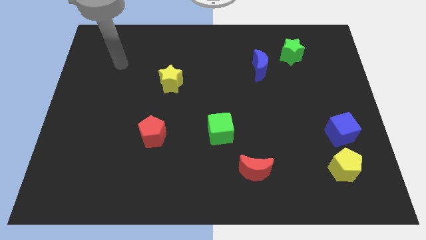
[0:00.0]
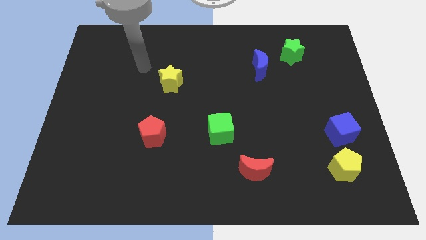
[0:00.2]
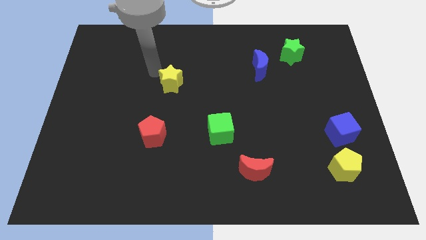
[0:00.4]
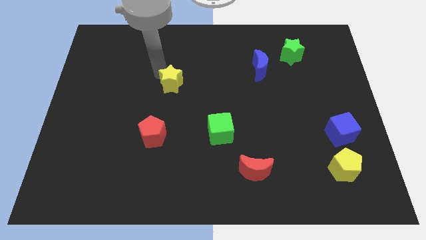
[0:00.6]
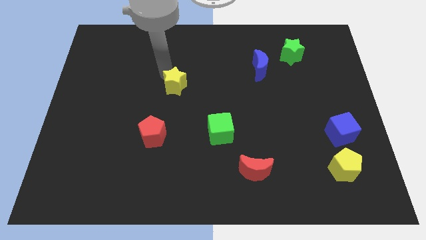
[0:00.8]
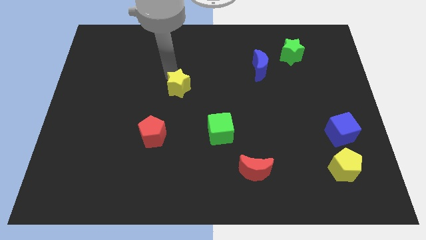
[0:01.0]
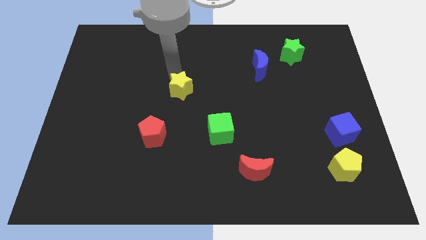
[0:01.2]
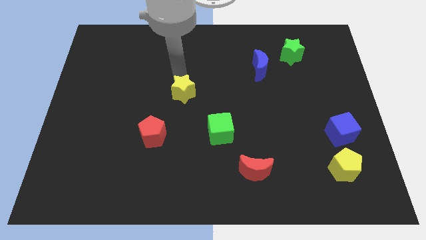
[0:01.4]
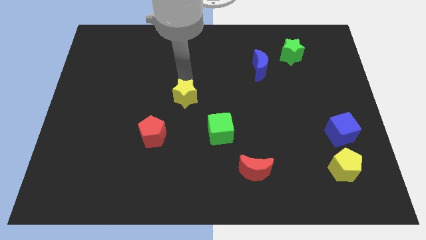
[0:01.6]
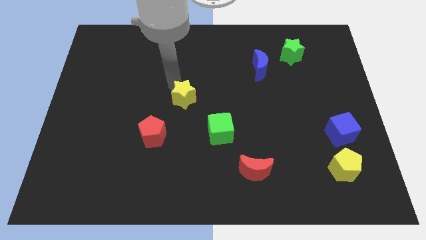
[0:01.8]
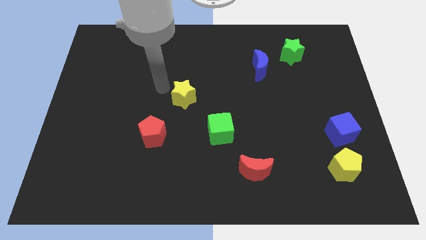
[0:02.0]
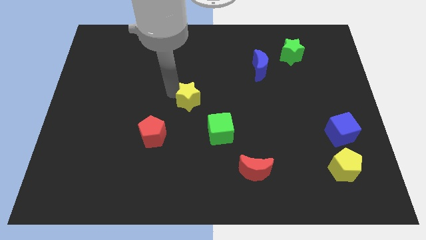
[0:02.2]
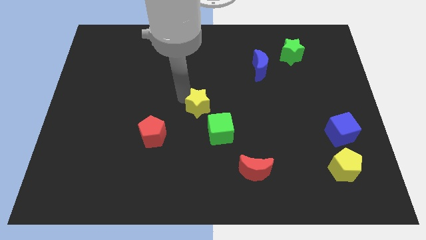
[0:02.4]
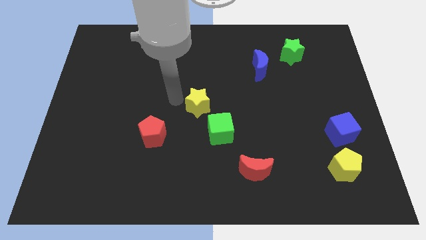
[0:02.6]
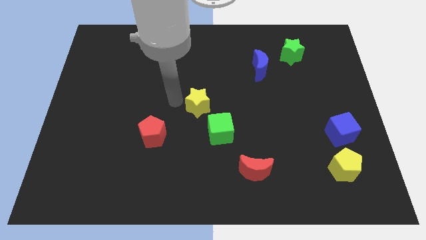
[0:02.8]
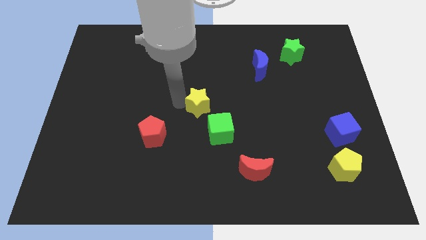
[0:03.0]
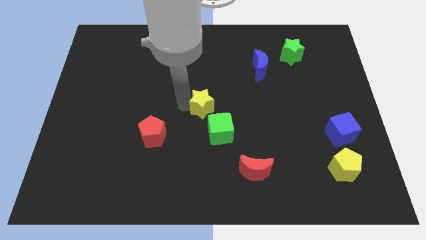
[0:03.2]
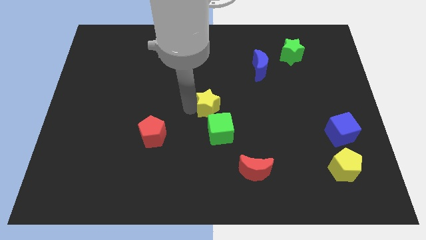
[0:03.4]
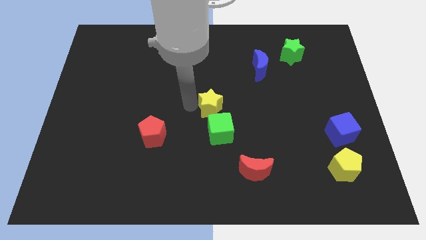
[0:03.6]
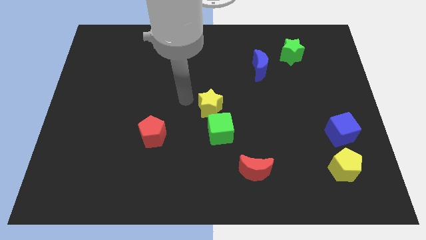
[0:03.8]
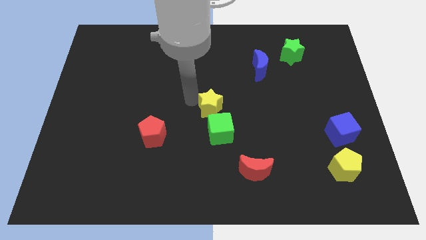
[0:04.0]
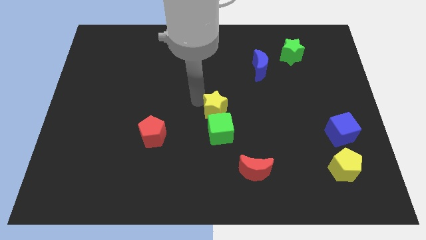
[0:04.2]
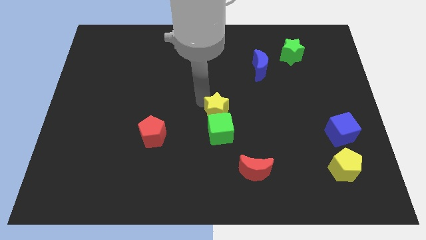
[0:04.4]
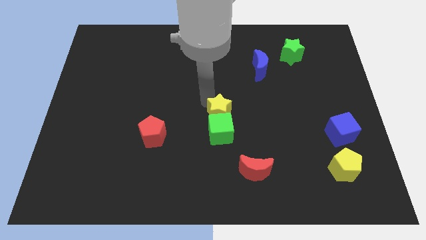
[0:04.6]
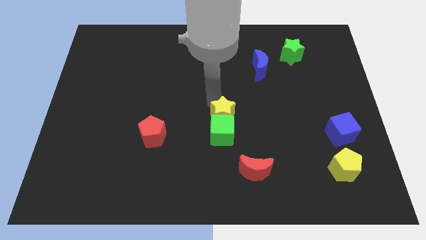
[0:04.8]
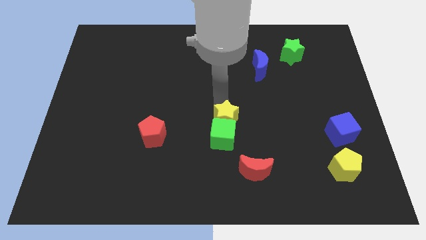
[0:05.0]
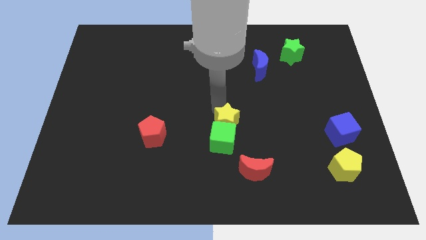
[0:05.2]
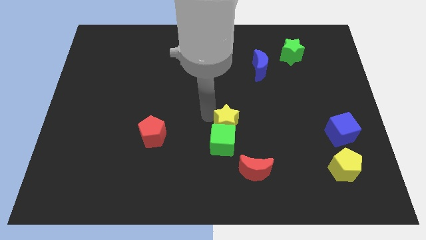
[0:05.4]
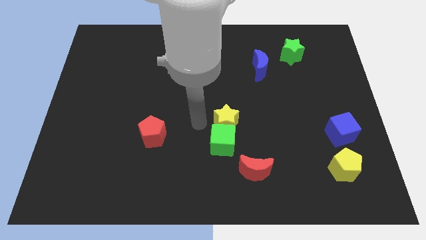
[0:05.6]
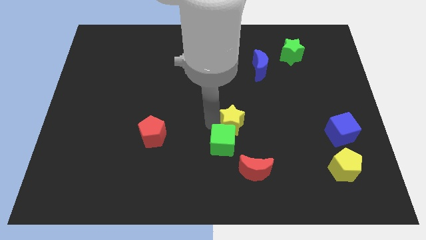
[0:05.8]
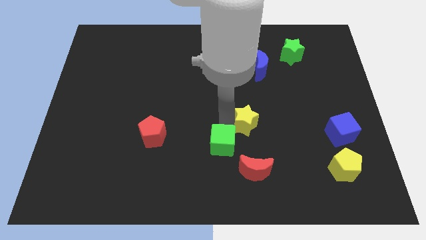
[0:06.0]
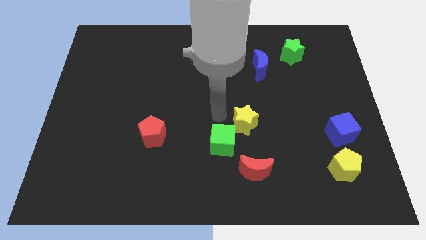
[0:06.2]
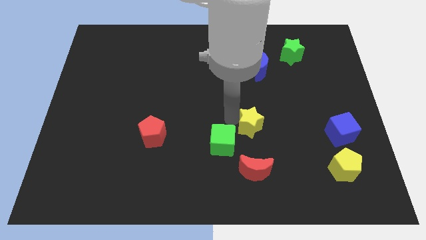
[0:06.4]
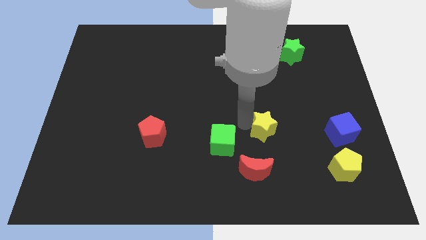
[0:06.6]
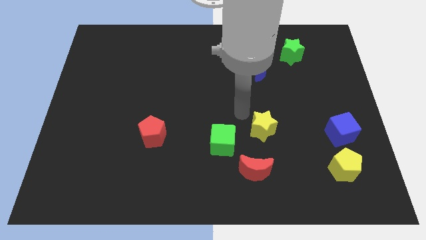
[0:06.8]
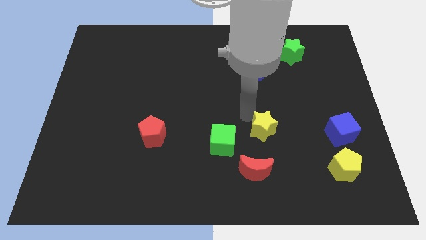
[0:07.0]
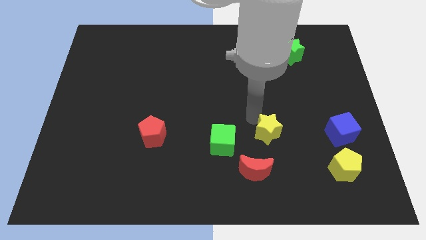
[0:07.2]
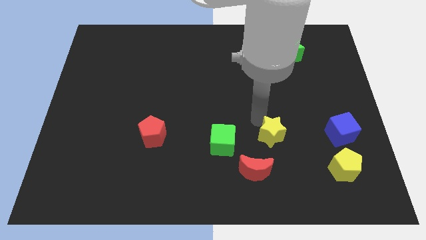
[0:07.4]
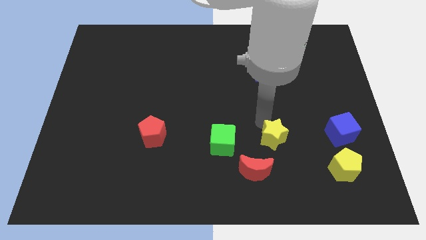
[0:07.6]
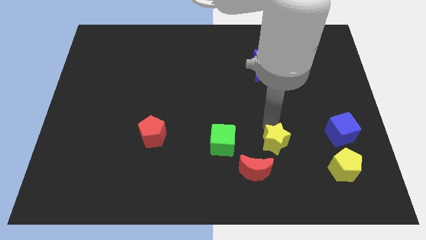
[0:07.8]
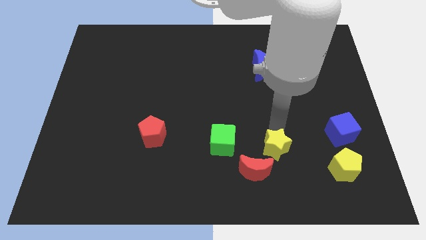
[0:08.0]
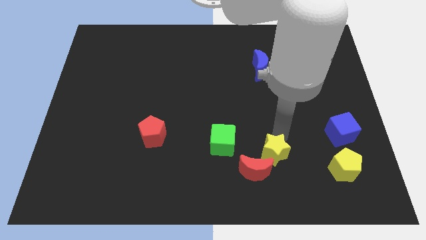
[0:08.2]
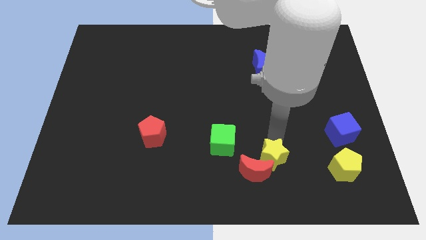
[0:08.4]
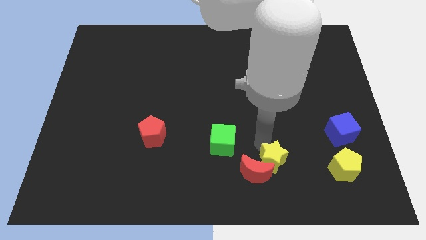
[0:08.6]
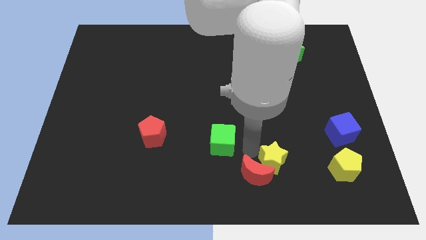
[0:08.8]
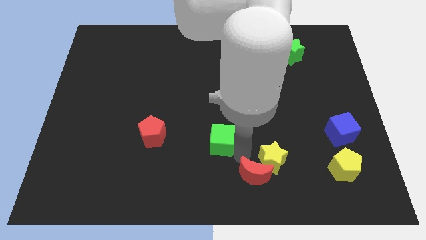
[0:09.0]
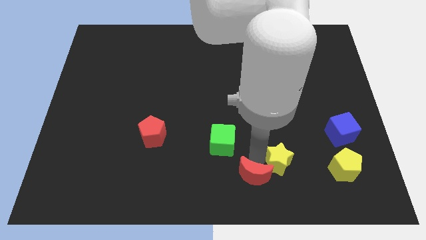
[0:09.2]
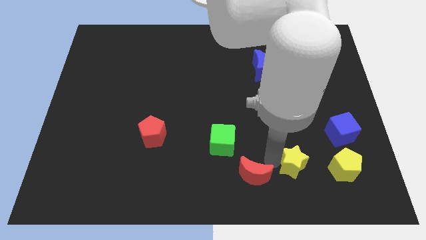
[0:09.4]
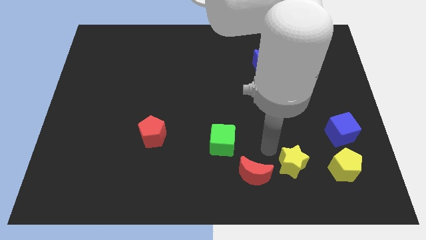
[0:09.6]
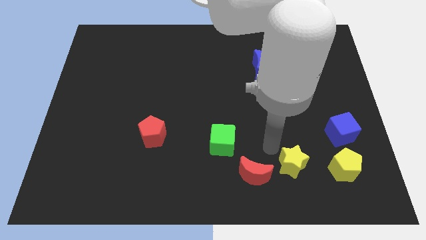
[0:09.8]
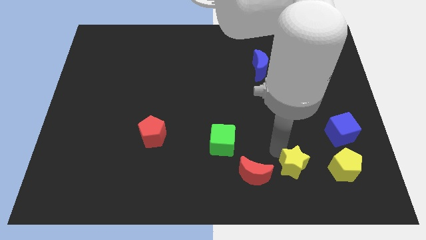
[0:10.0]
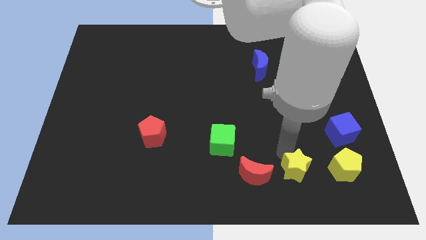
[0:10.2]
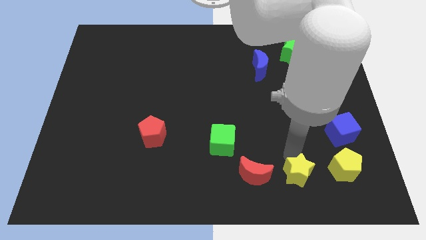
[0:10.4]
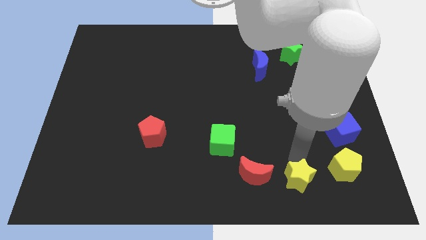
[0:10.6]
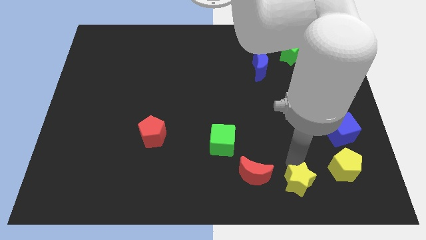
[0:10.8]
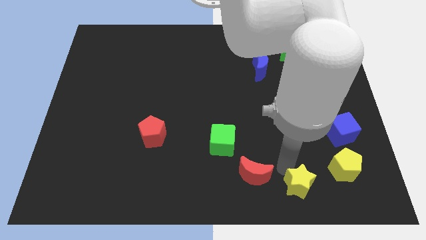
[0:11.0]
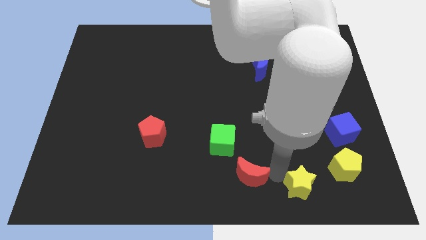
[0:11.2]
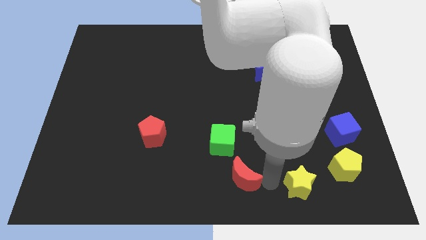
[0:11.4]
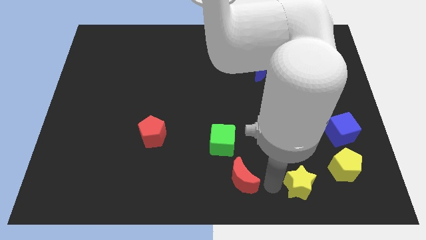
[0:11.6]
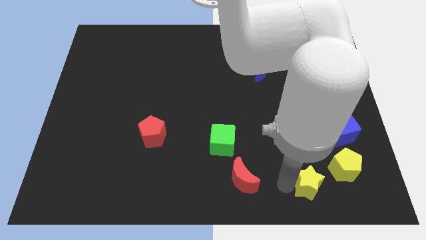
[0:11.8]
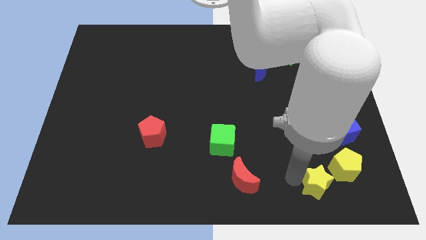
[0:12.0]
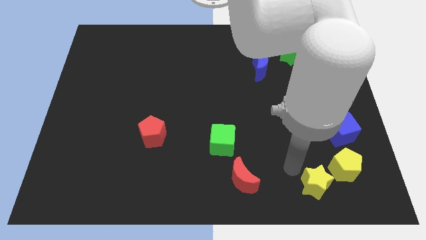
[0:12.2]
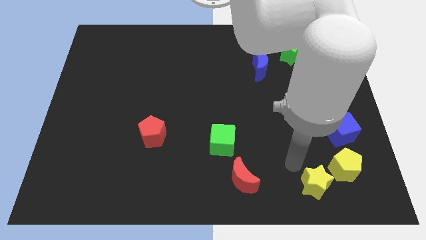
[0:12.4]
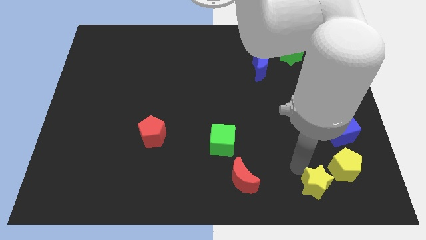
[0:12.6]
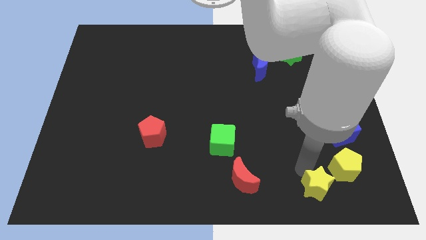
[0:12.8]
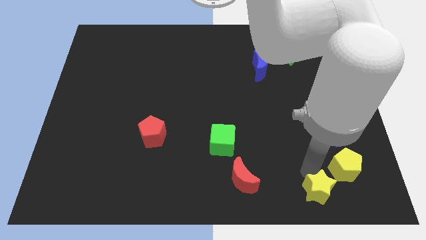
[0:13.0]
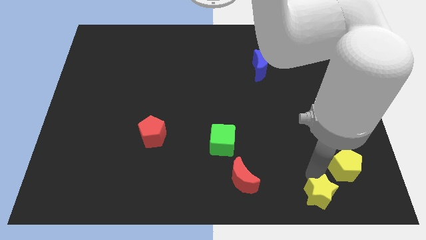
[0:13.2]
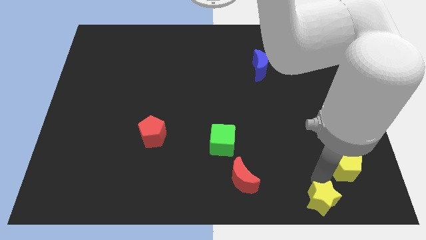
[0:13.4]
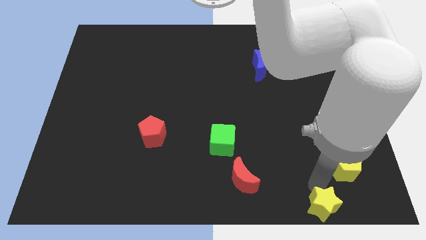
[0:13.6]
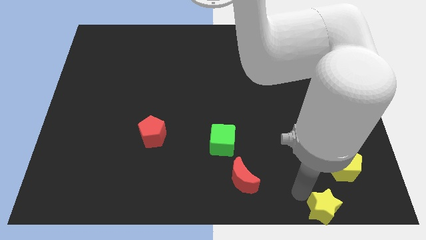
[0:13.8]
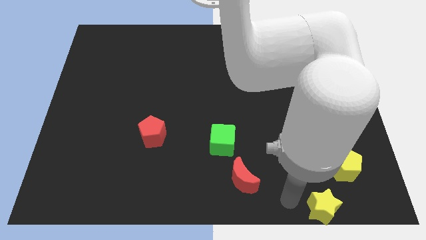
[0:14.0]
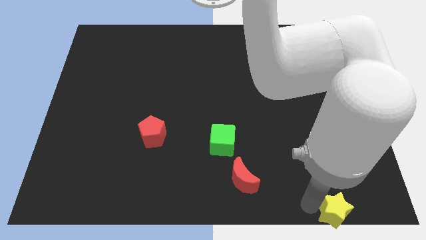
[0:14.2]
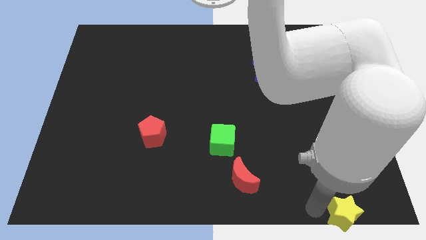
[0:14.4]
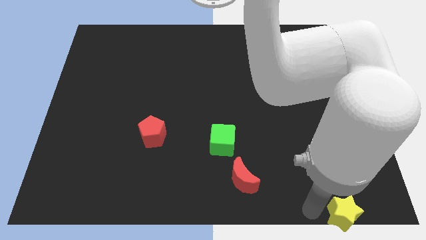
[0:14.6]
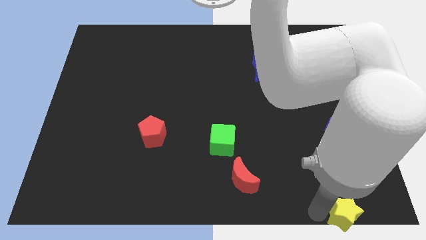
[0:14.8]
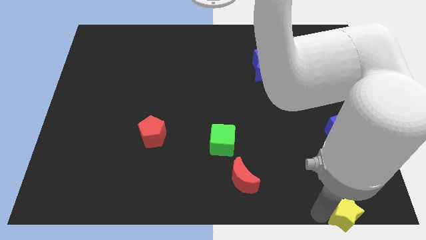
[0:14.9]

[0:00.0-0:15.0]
push the yellow star to the bottom right corner
